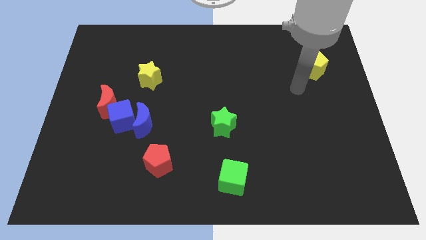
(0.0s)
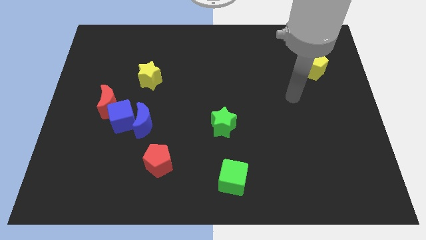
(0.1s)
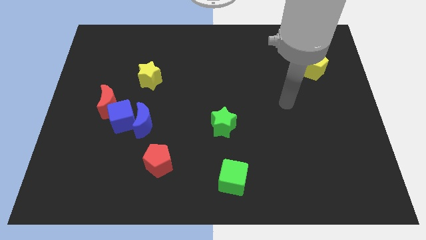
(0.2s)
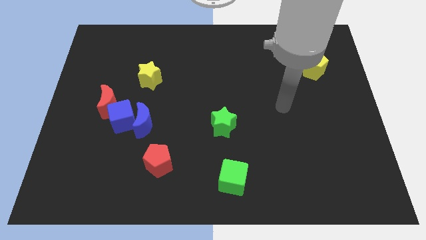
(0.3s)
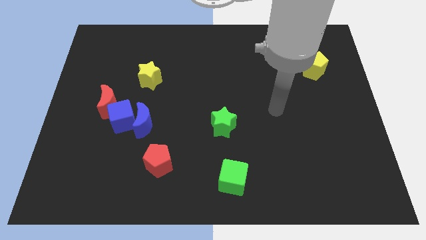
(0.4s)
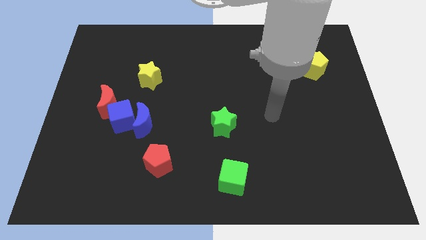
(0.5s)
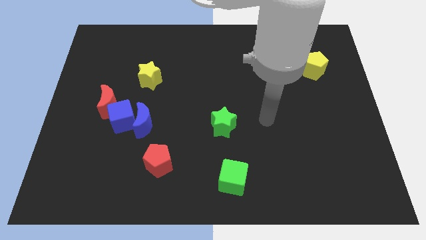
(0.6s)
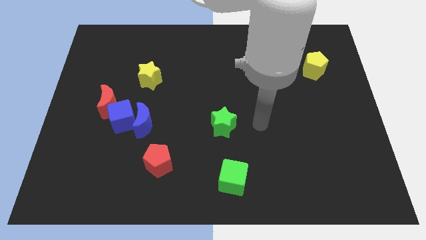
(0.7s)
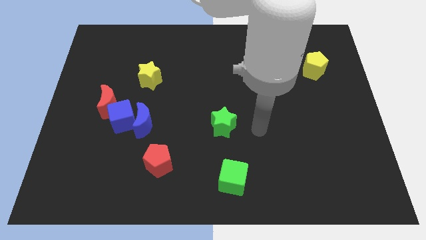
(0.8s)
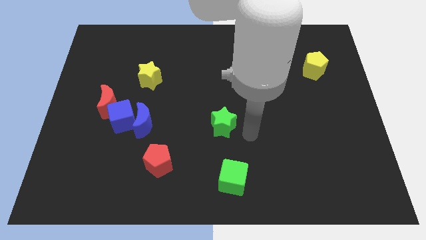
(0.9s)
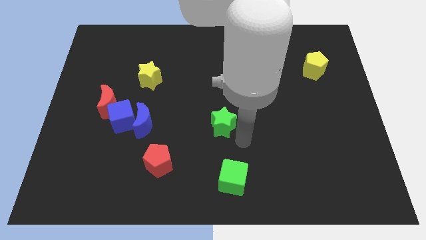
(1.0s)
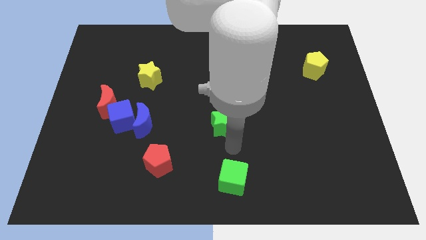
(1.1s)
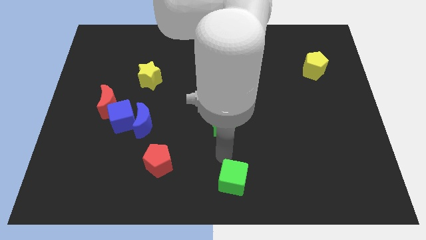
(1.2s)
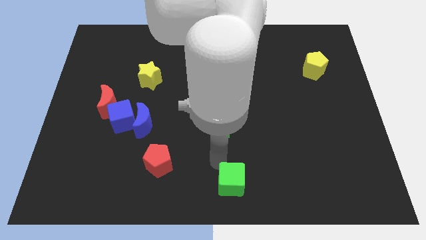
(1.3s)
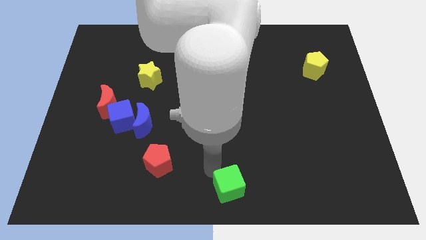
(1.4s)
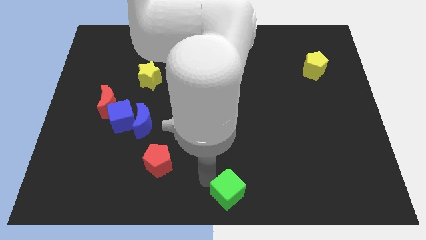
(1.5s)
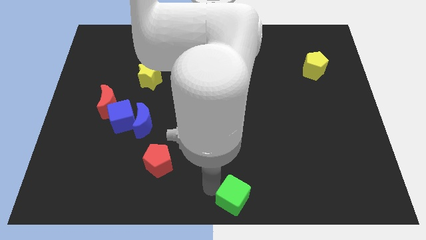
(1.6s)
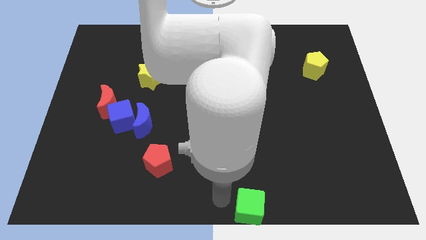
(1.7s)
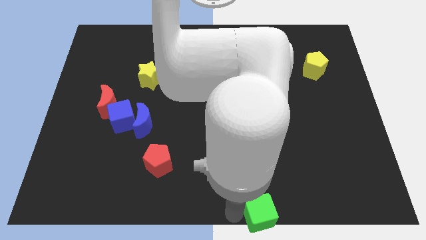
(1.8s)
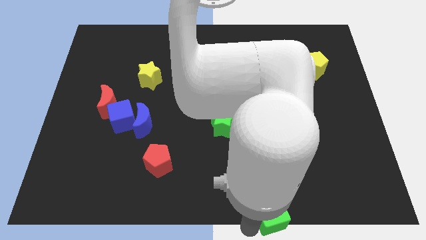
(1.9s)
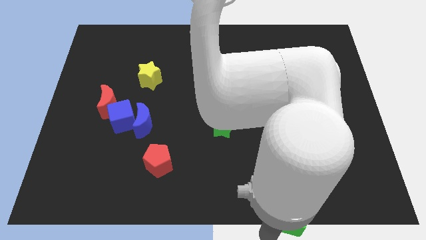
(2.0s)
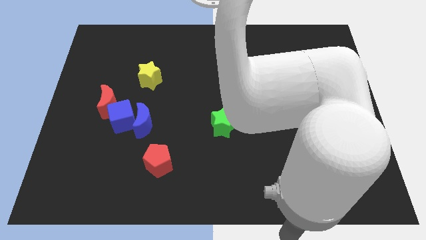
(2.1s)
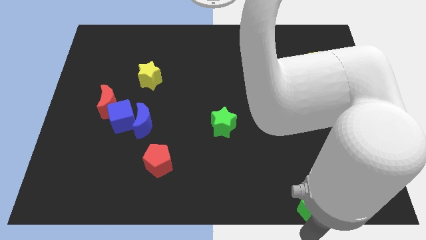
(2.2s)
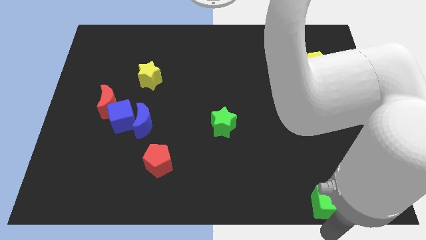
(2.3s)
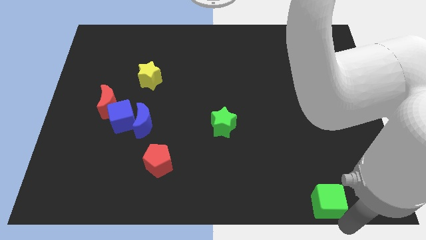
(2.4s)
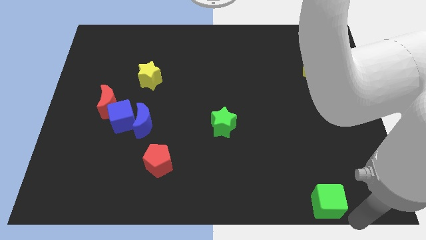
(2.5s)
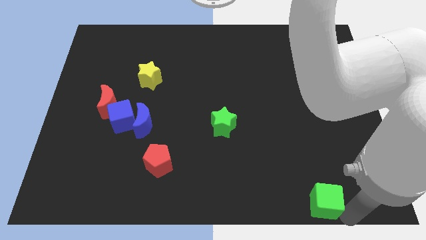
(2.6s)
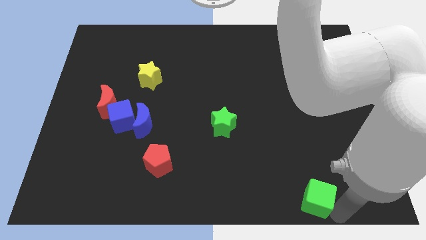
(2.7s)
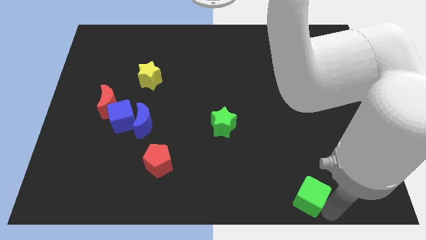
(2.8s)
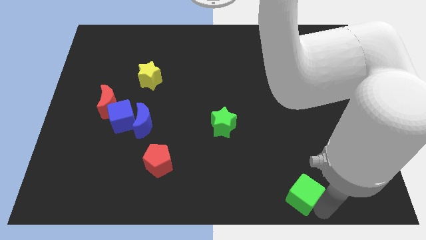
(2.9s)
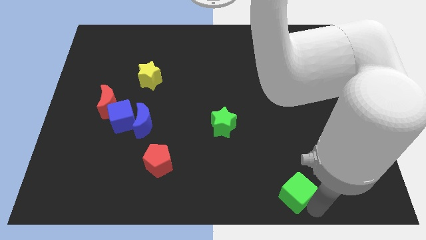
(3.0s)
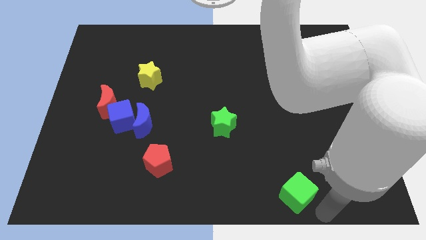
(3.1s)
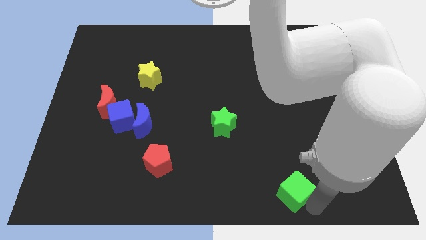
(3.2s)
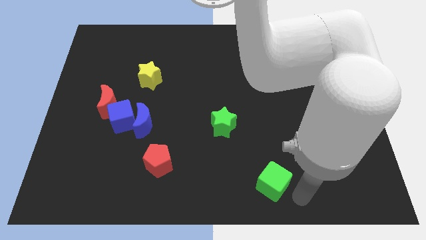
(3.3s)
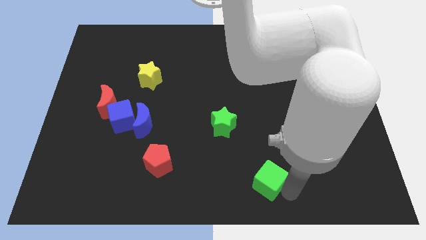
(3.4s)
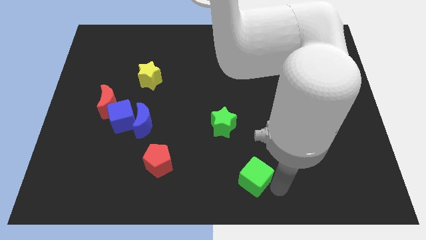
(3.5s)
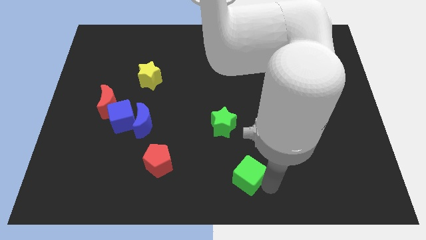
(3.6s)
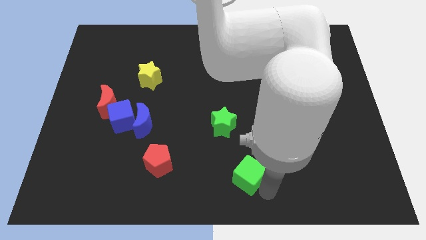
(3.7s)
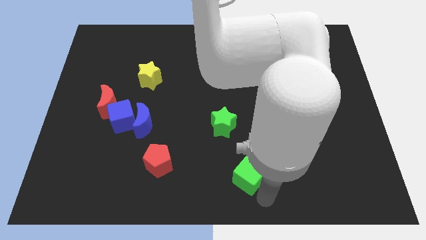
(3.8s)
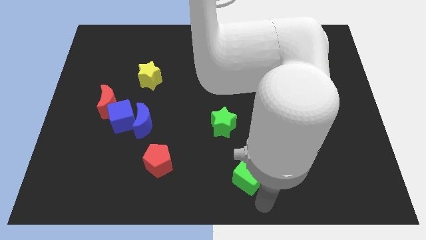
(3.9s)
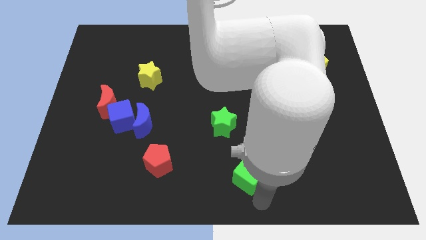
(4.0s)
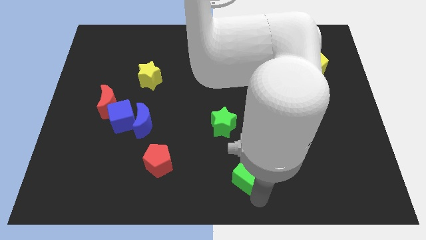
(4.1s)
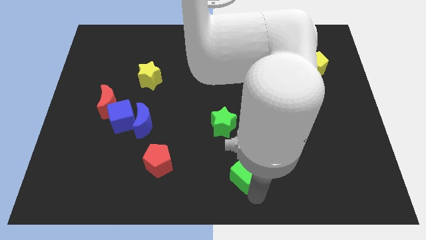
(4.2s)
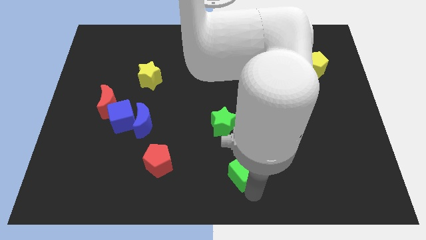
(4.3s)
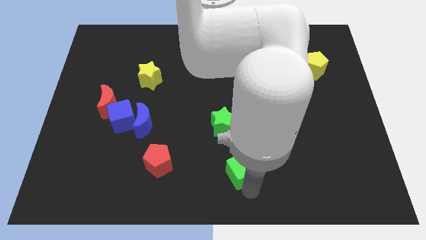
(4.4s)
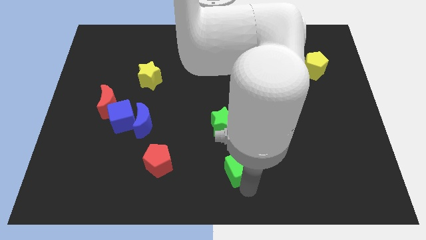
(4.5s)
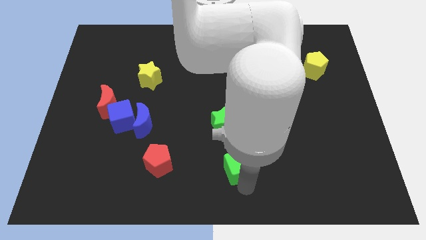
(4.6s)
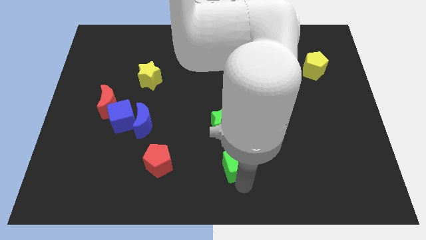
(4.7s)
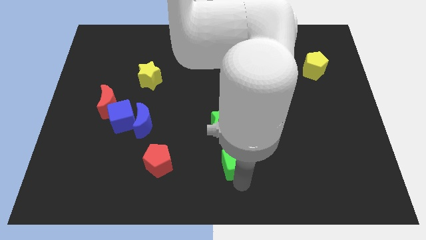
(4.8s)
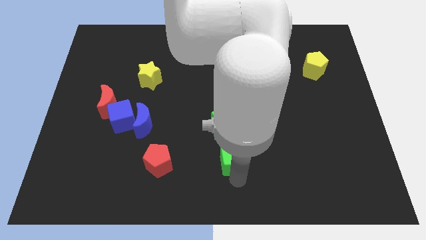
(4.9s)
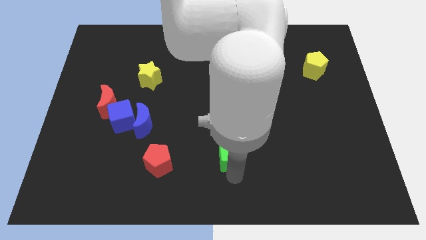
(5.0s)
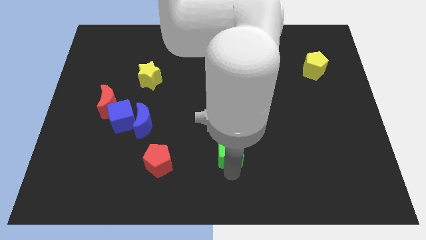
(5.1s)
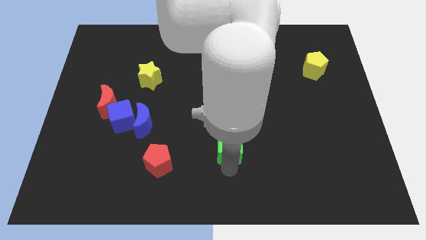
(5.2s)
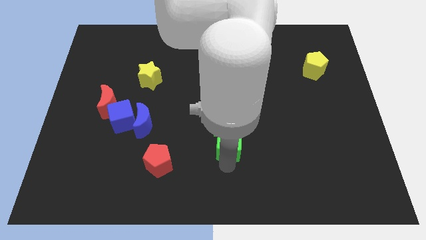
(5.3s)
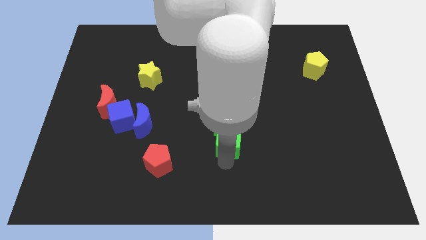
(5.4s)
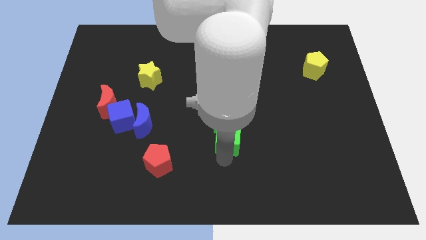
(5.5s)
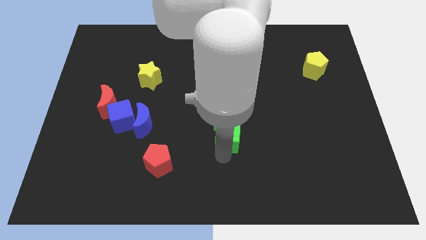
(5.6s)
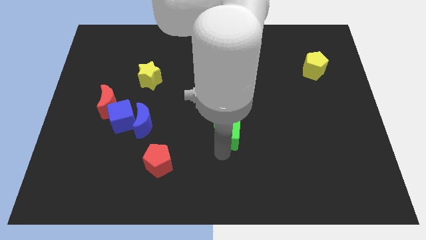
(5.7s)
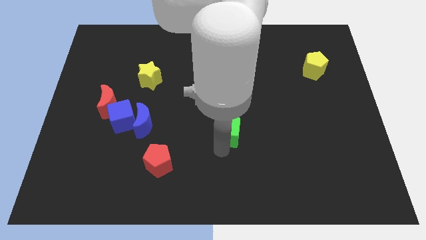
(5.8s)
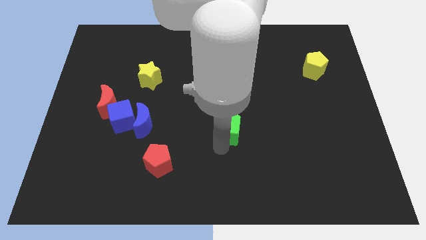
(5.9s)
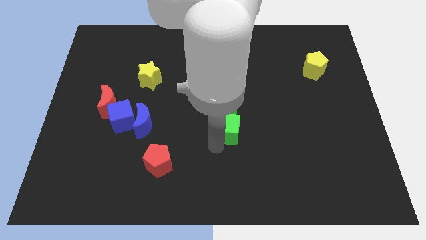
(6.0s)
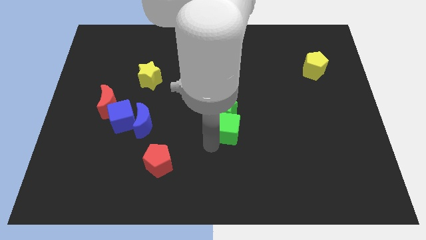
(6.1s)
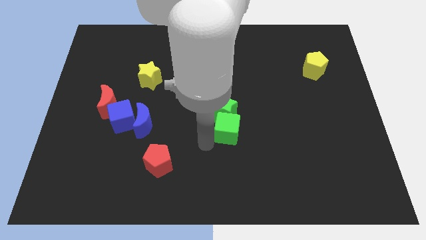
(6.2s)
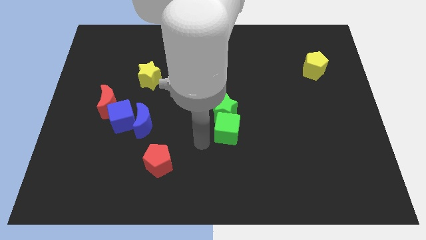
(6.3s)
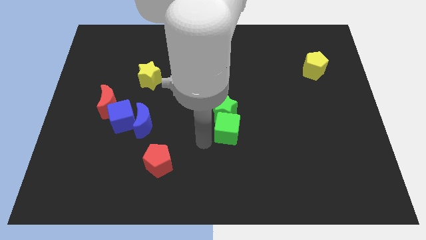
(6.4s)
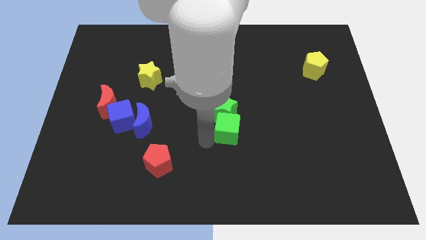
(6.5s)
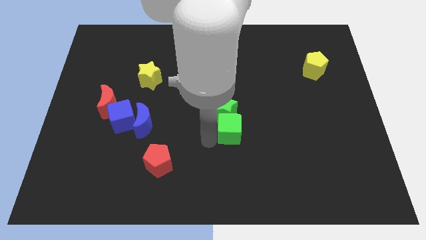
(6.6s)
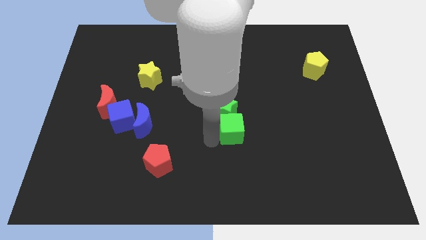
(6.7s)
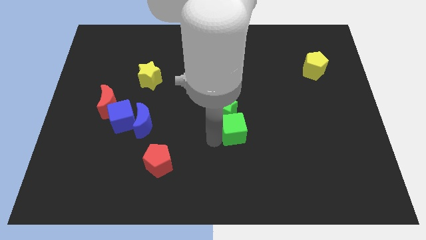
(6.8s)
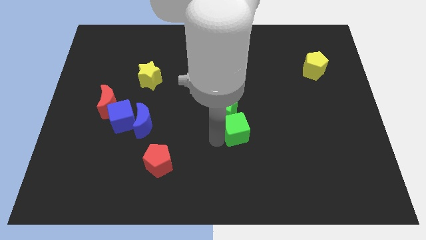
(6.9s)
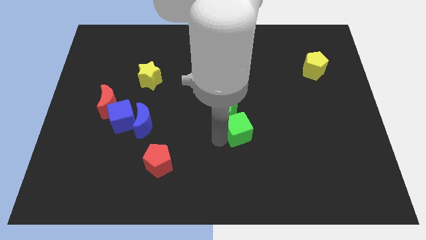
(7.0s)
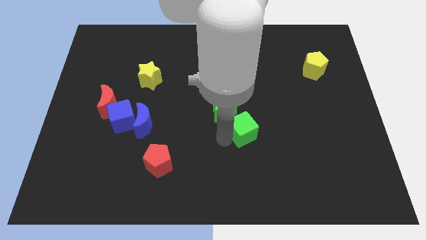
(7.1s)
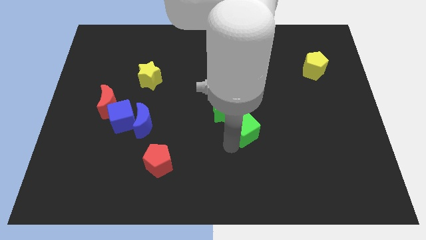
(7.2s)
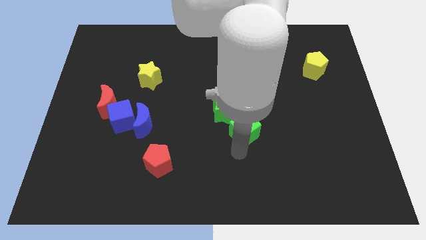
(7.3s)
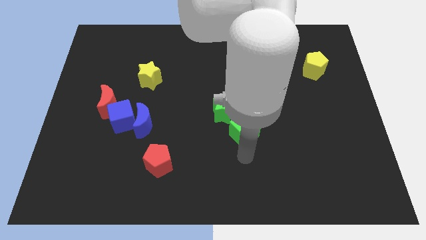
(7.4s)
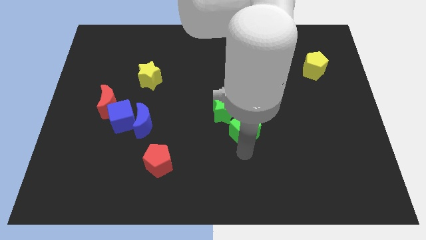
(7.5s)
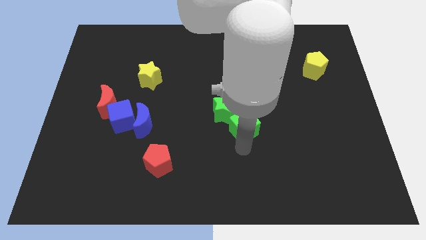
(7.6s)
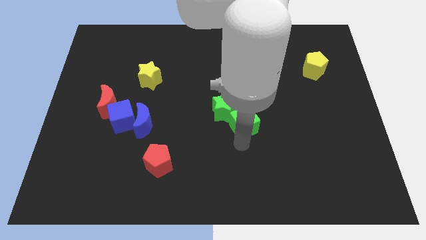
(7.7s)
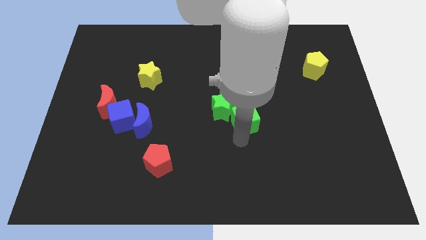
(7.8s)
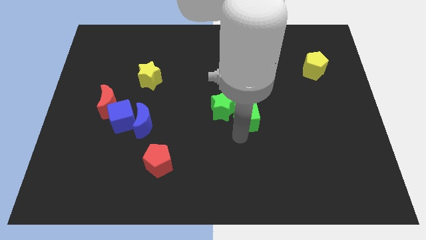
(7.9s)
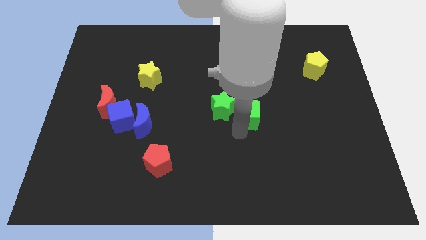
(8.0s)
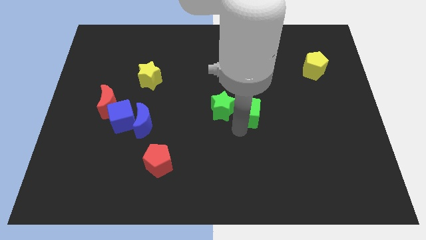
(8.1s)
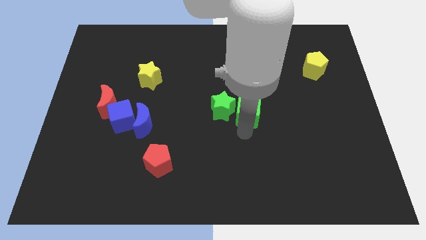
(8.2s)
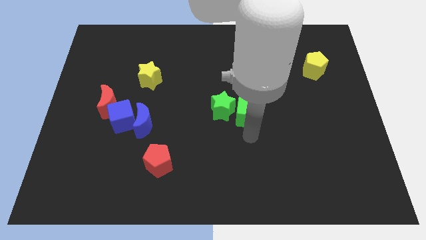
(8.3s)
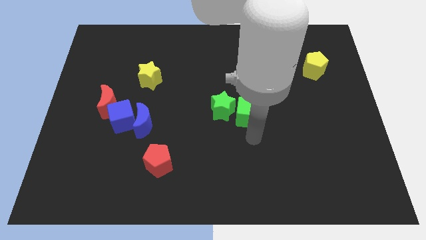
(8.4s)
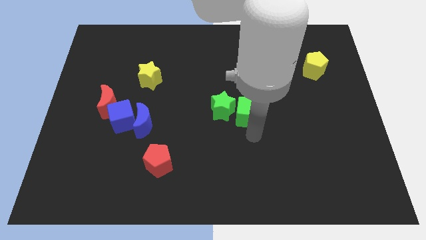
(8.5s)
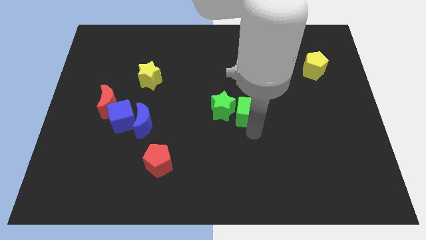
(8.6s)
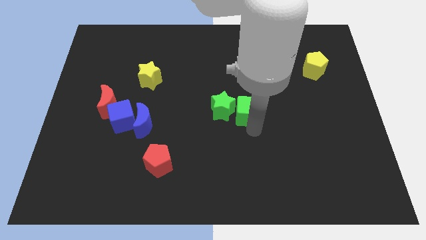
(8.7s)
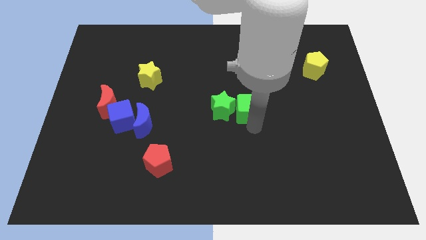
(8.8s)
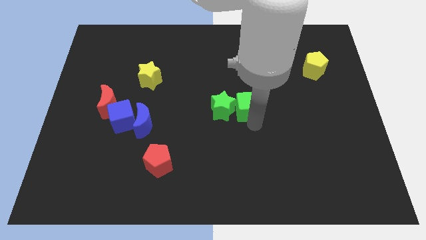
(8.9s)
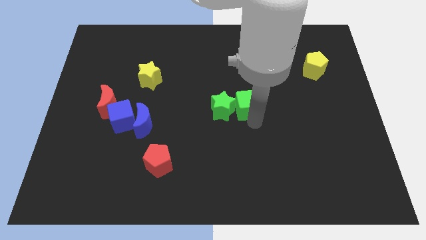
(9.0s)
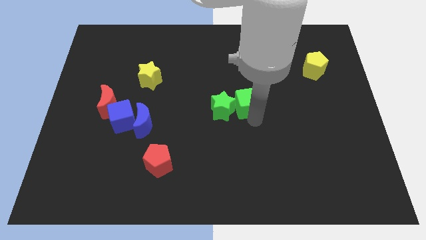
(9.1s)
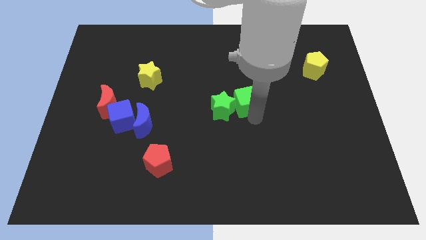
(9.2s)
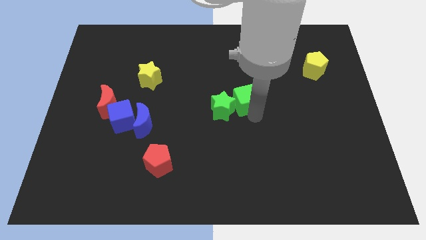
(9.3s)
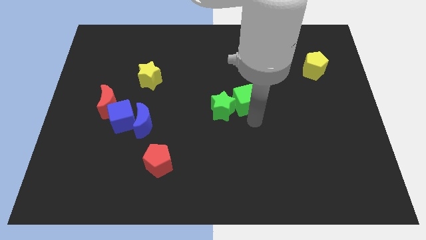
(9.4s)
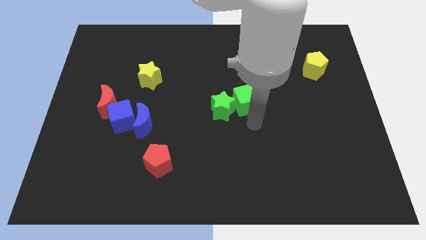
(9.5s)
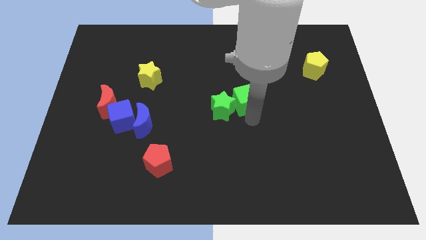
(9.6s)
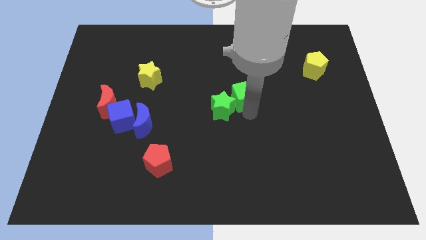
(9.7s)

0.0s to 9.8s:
move the green cube up
